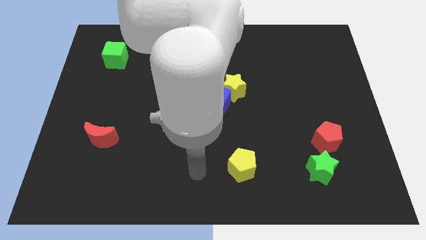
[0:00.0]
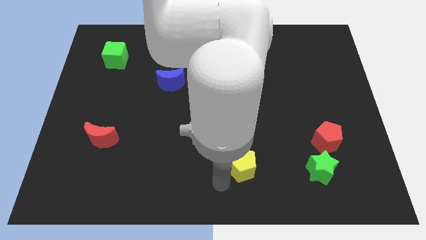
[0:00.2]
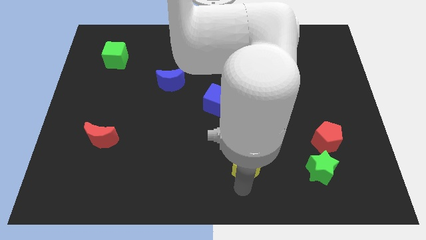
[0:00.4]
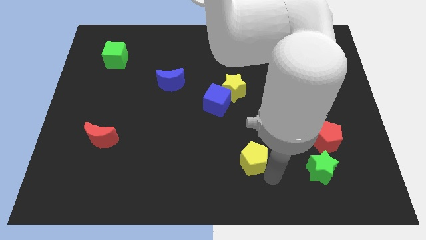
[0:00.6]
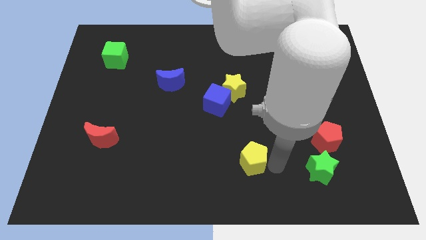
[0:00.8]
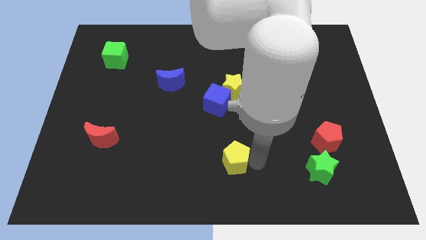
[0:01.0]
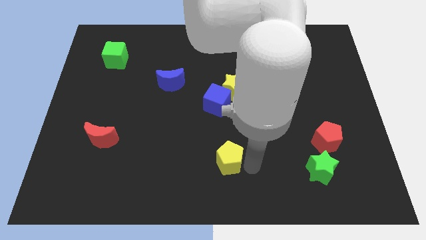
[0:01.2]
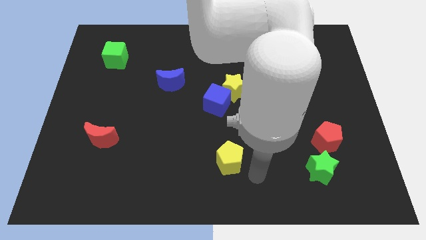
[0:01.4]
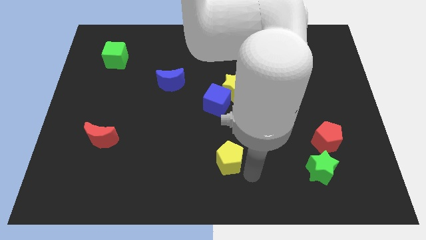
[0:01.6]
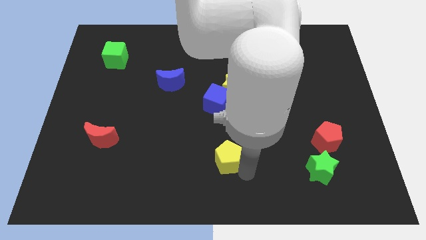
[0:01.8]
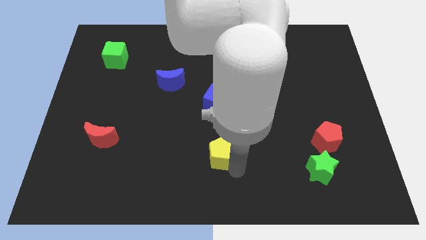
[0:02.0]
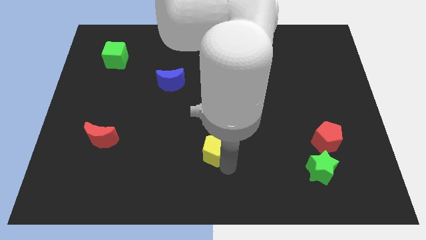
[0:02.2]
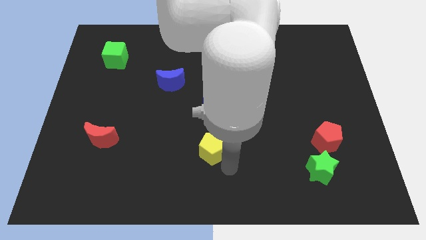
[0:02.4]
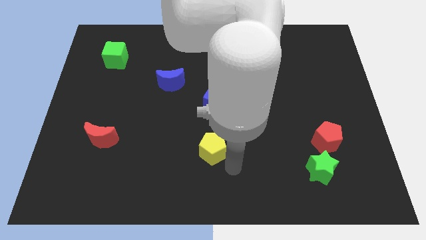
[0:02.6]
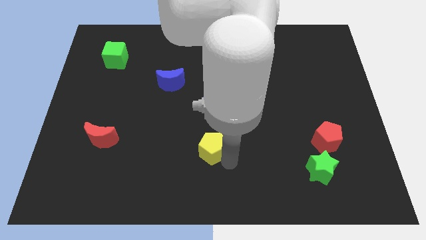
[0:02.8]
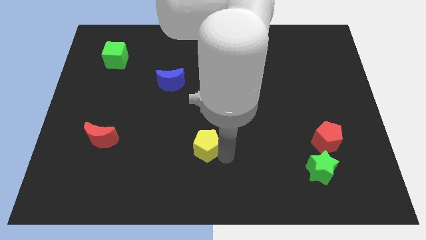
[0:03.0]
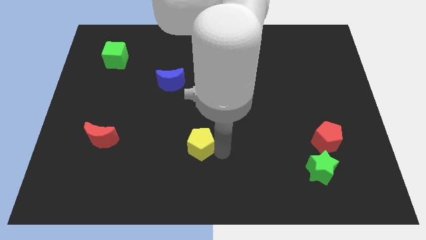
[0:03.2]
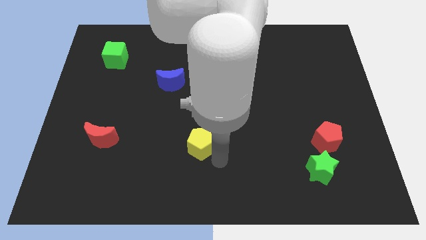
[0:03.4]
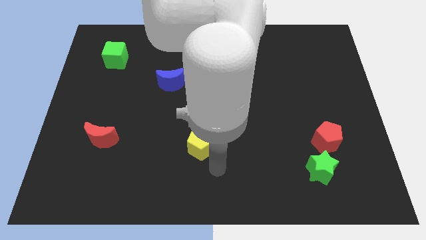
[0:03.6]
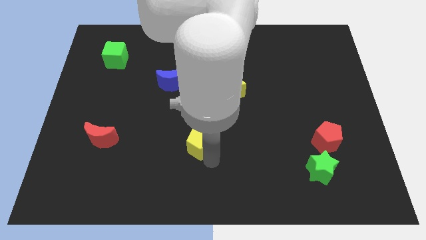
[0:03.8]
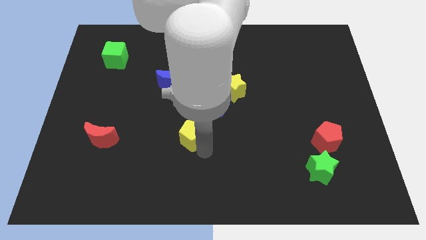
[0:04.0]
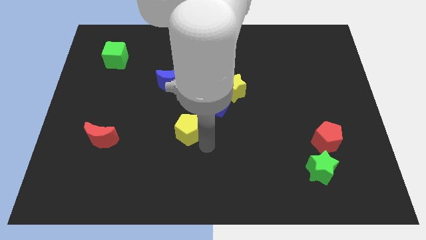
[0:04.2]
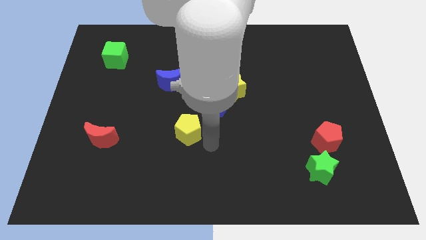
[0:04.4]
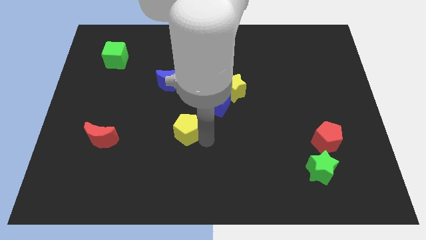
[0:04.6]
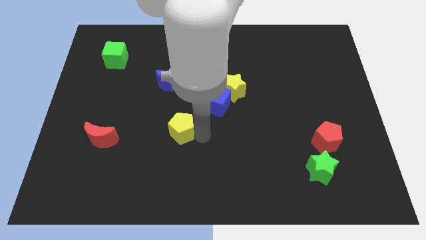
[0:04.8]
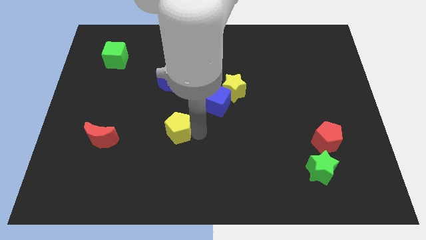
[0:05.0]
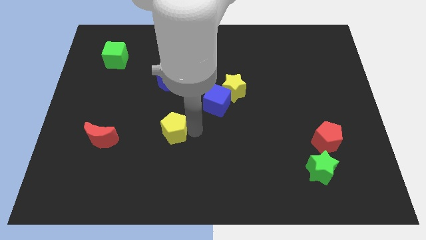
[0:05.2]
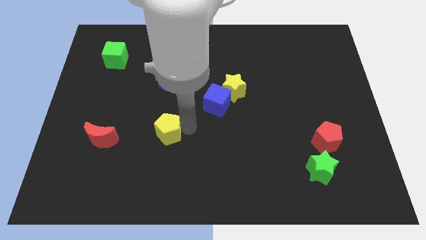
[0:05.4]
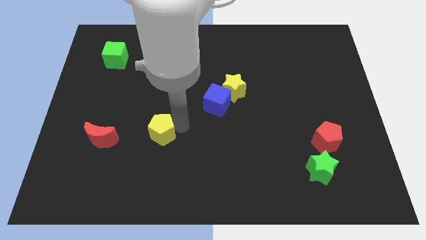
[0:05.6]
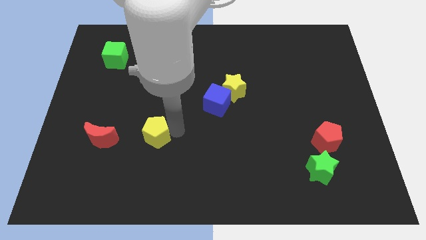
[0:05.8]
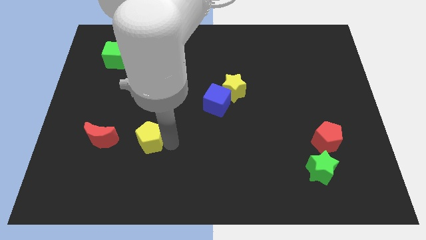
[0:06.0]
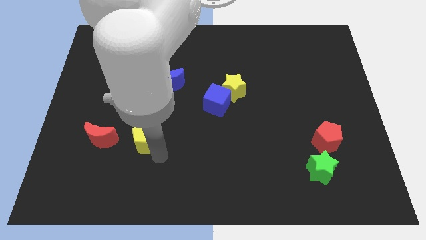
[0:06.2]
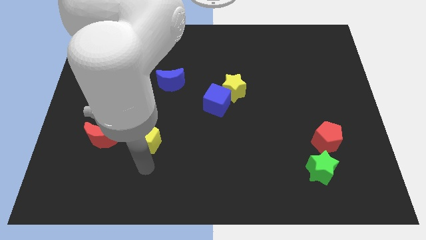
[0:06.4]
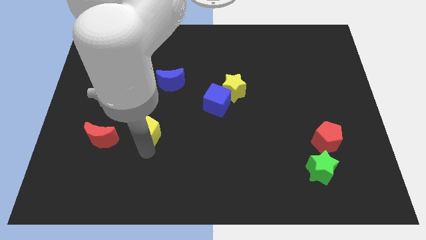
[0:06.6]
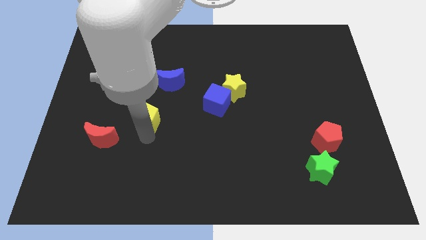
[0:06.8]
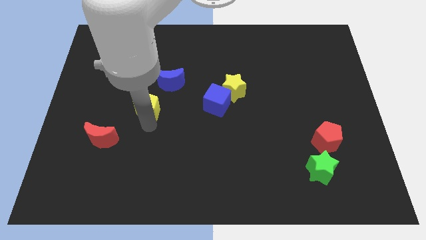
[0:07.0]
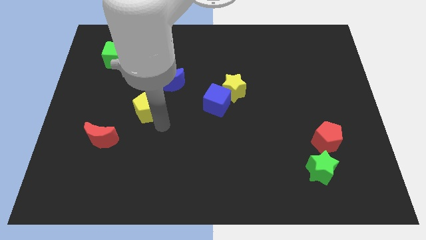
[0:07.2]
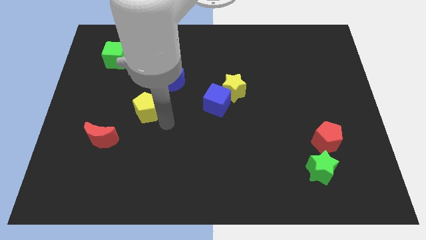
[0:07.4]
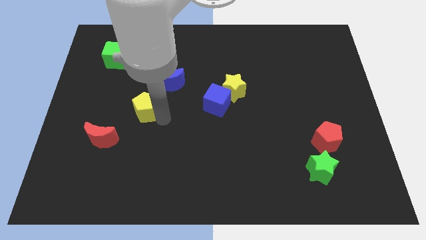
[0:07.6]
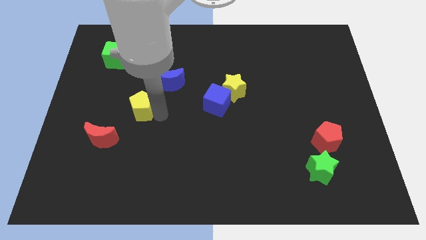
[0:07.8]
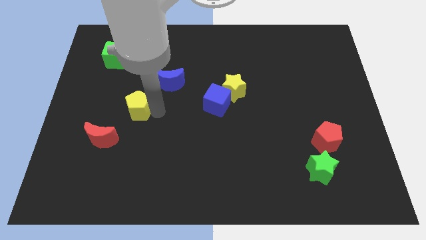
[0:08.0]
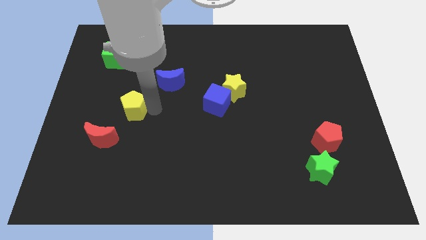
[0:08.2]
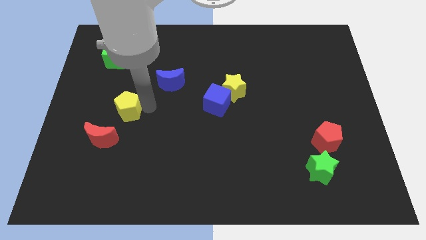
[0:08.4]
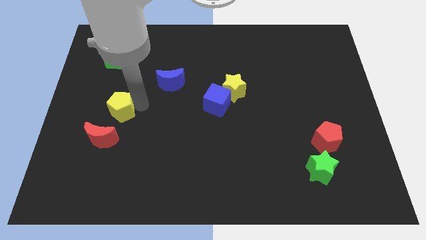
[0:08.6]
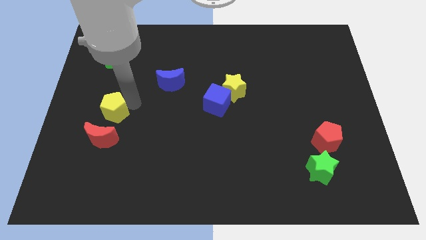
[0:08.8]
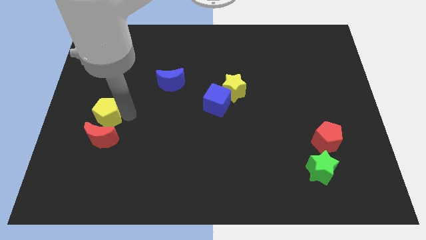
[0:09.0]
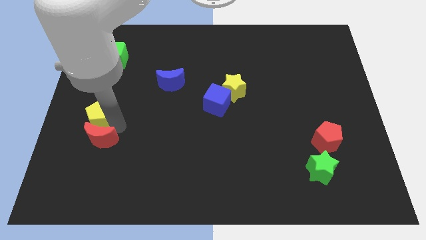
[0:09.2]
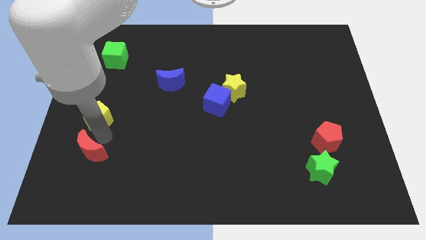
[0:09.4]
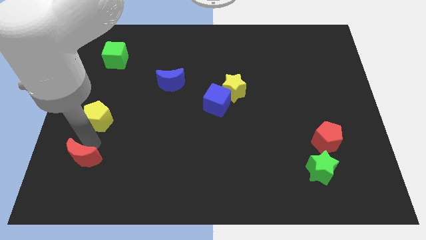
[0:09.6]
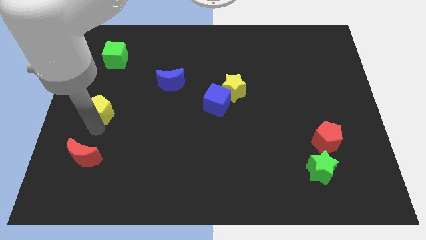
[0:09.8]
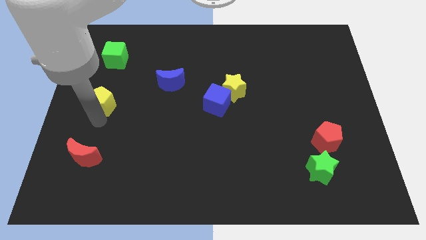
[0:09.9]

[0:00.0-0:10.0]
move the yellow pentagon below the green cube

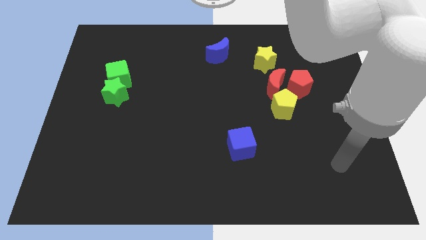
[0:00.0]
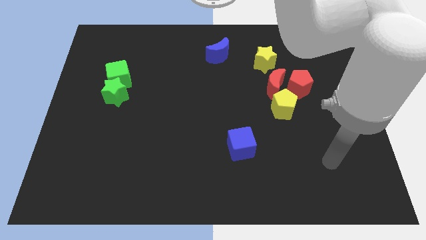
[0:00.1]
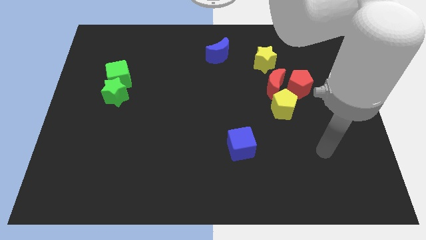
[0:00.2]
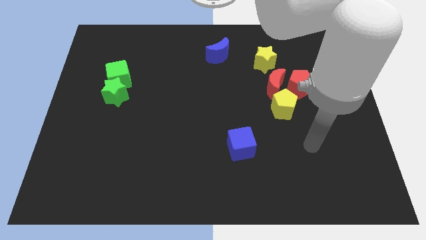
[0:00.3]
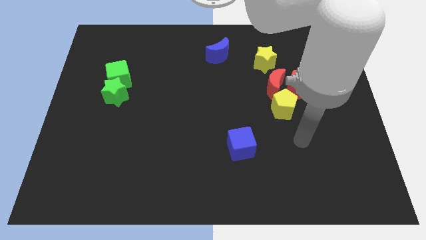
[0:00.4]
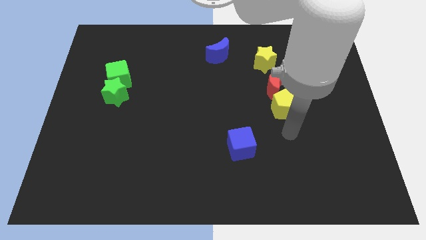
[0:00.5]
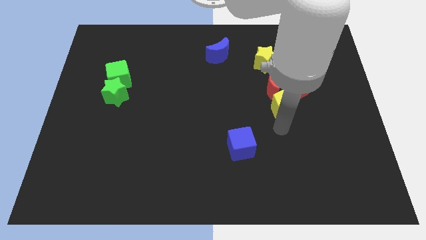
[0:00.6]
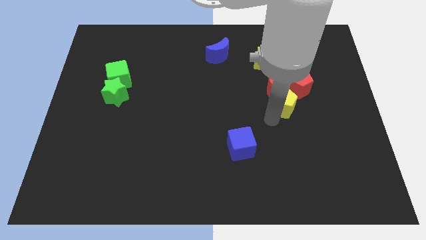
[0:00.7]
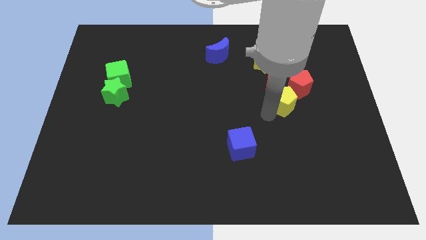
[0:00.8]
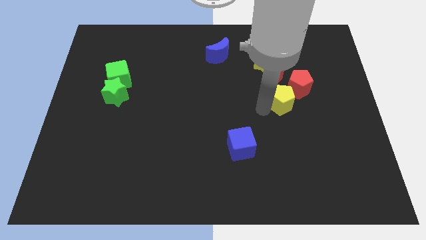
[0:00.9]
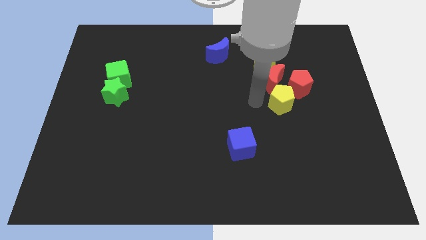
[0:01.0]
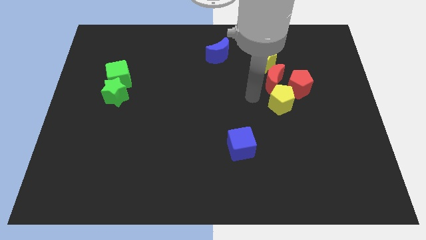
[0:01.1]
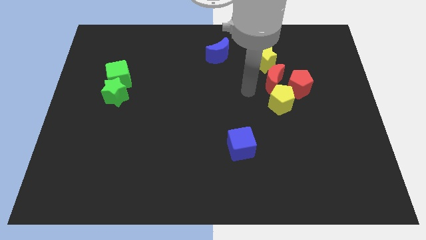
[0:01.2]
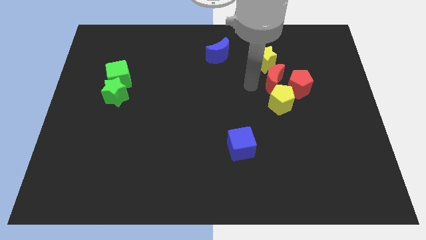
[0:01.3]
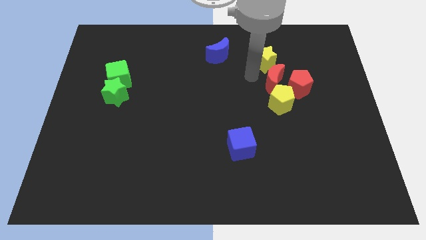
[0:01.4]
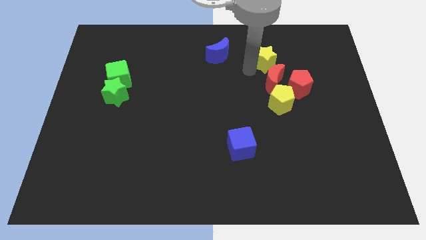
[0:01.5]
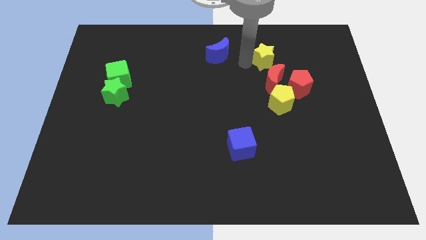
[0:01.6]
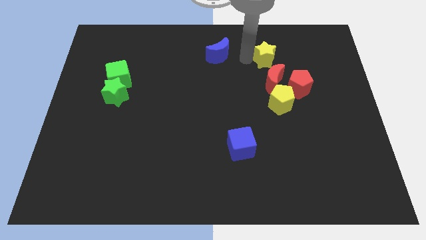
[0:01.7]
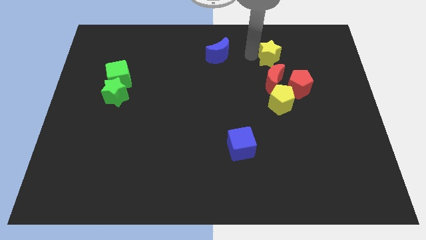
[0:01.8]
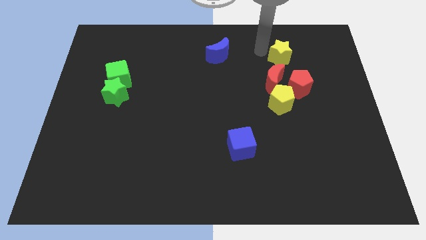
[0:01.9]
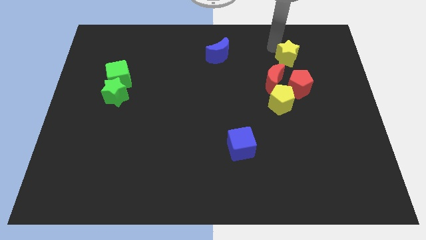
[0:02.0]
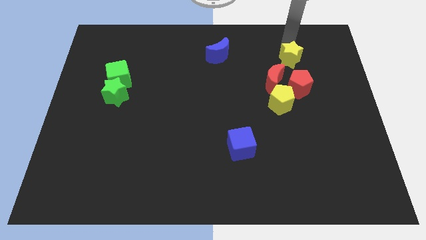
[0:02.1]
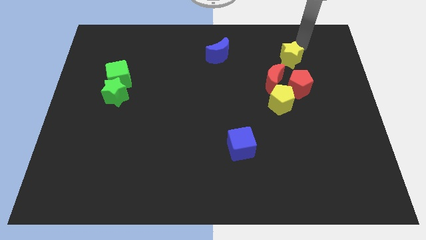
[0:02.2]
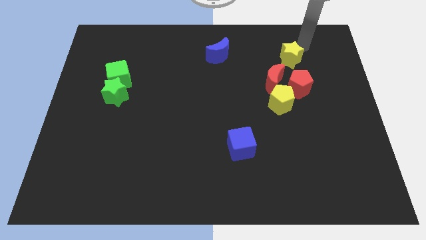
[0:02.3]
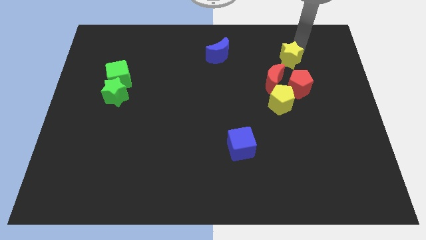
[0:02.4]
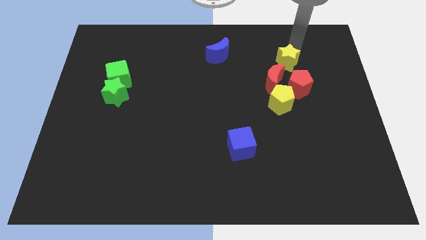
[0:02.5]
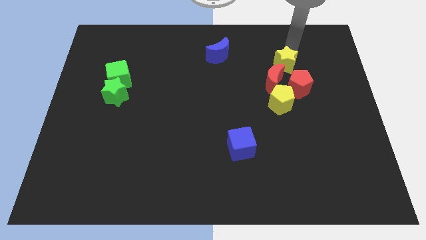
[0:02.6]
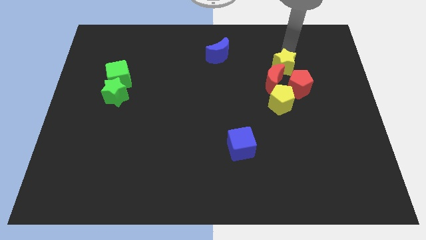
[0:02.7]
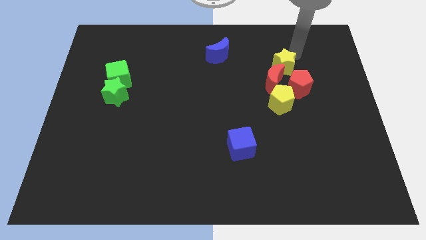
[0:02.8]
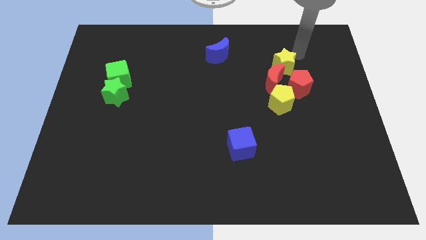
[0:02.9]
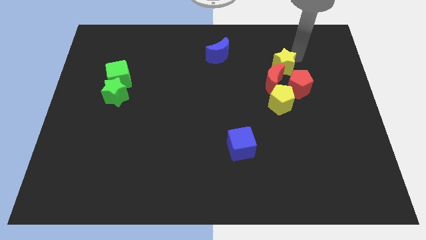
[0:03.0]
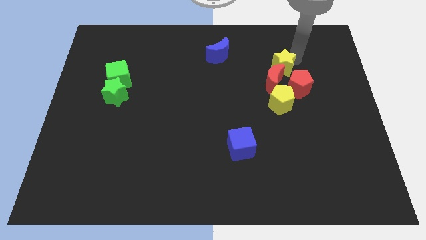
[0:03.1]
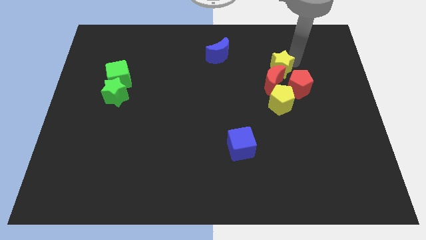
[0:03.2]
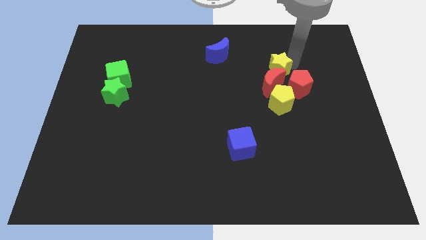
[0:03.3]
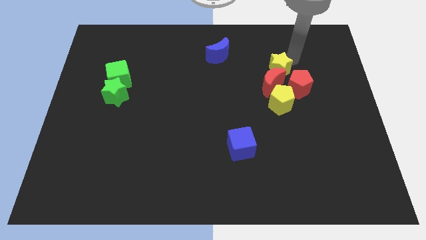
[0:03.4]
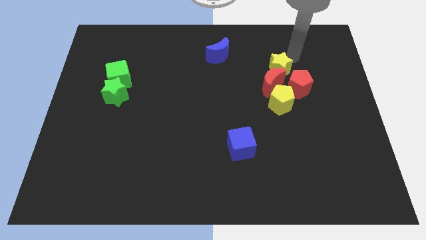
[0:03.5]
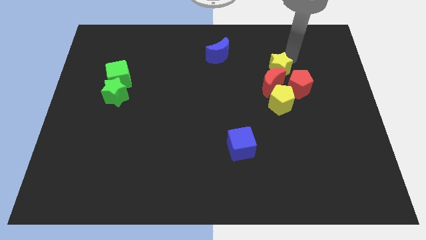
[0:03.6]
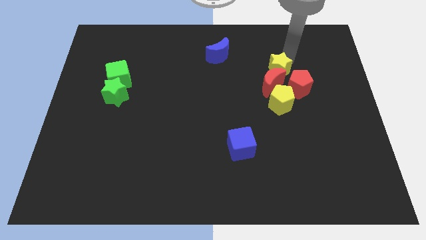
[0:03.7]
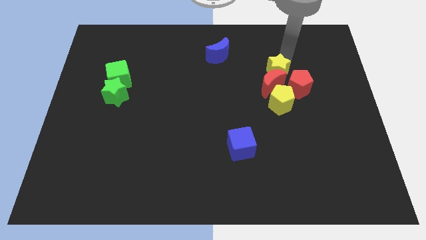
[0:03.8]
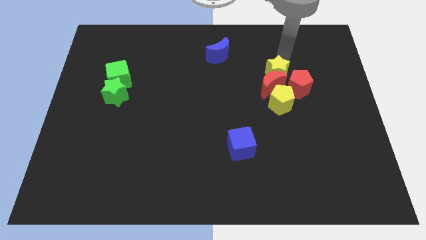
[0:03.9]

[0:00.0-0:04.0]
slide the yellow star just left of the red pentagon
